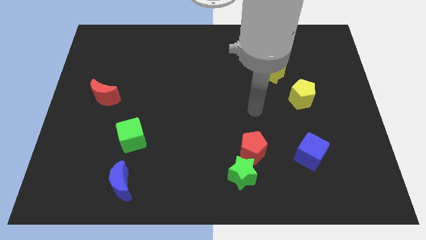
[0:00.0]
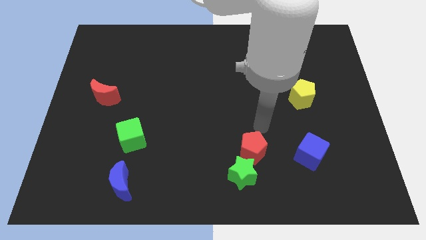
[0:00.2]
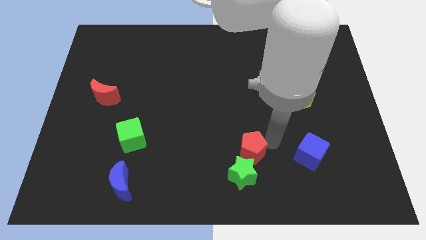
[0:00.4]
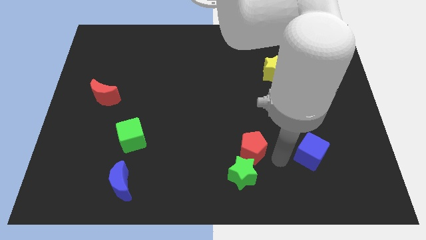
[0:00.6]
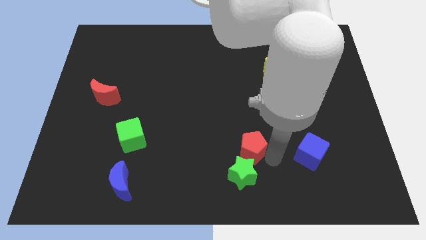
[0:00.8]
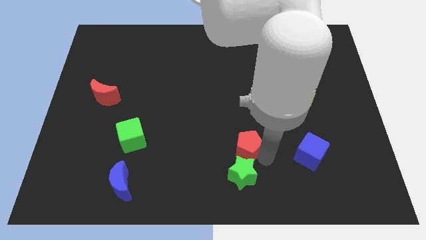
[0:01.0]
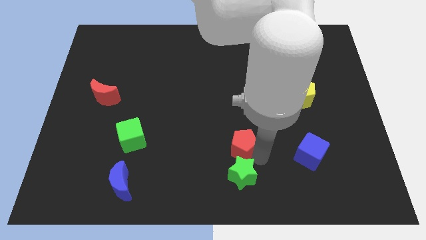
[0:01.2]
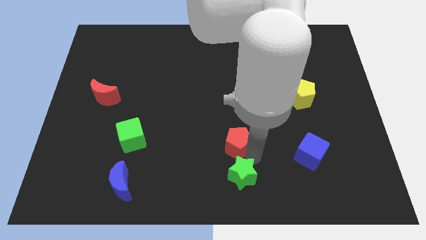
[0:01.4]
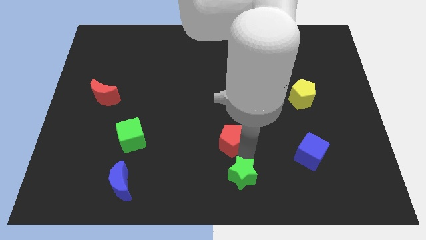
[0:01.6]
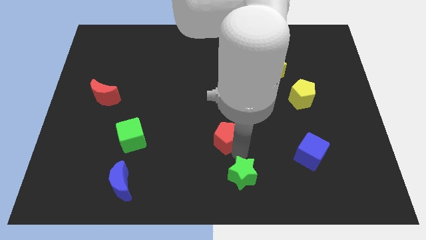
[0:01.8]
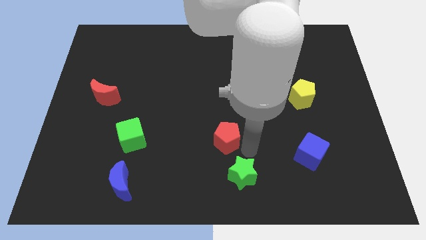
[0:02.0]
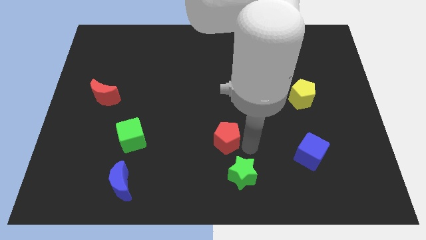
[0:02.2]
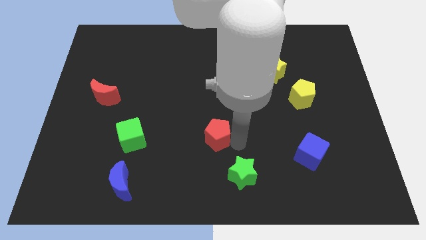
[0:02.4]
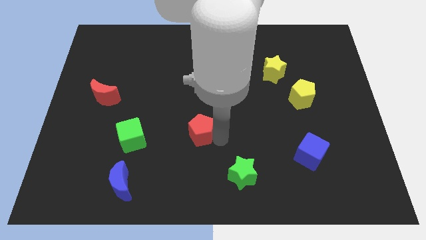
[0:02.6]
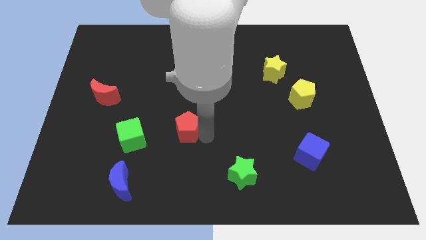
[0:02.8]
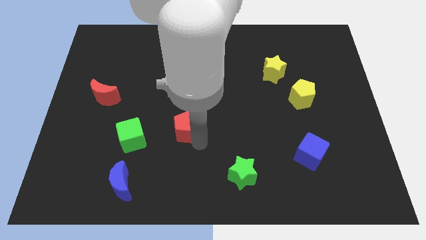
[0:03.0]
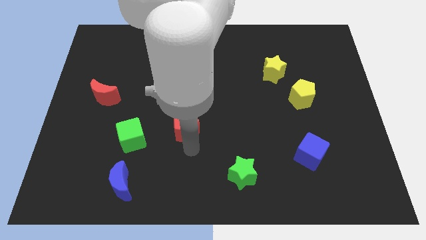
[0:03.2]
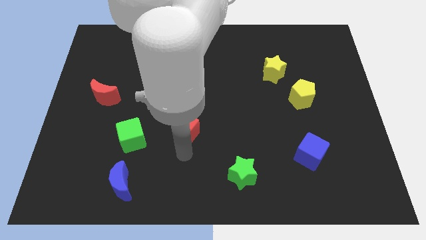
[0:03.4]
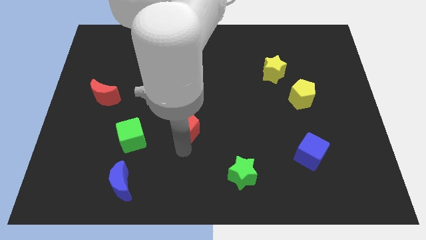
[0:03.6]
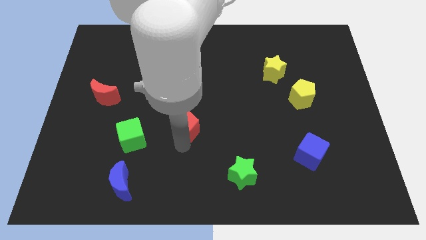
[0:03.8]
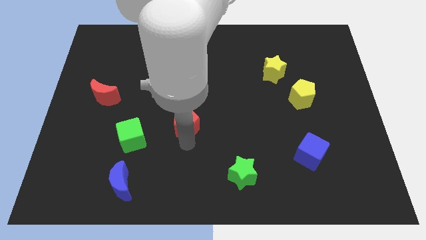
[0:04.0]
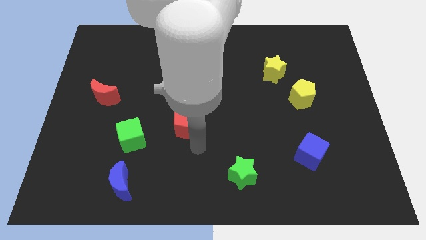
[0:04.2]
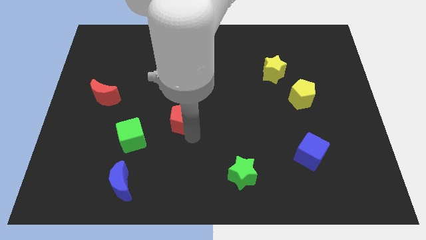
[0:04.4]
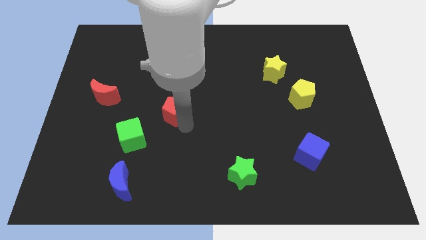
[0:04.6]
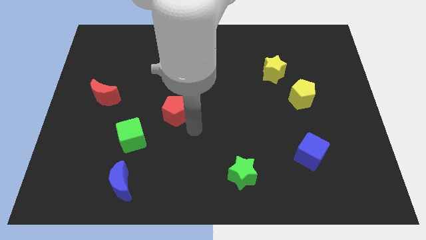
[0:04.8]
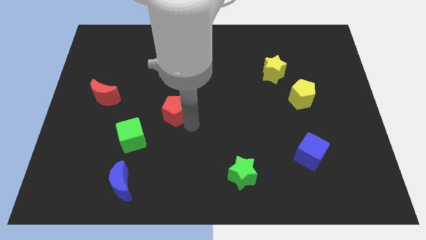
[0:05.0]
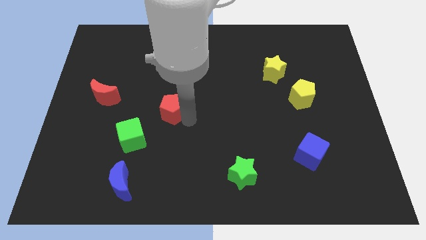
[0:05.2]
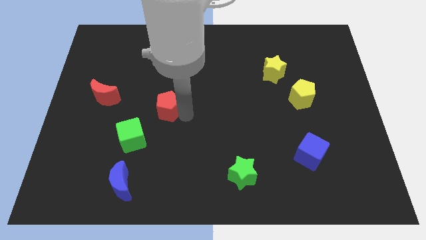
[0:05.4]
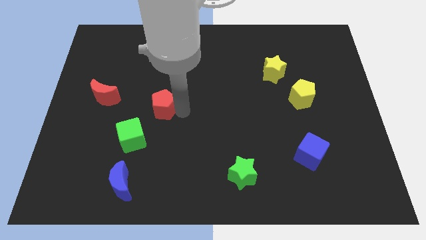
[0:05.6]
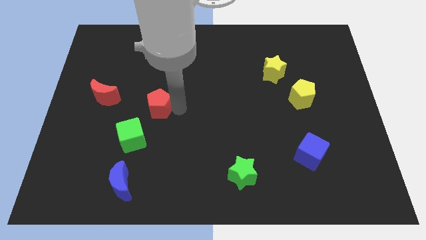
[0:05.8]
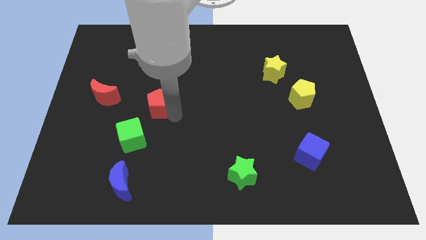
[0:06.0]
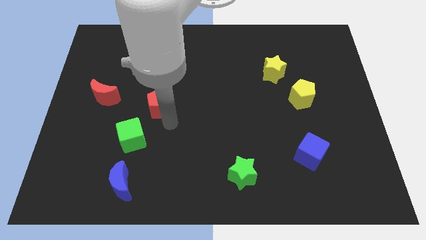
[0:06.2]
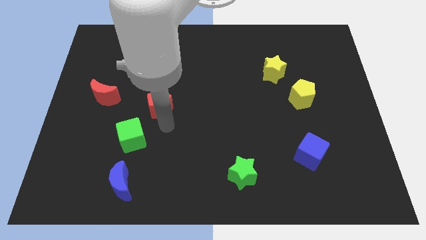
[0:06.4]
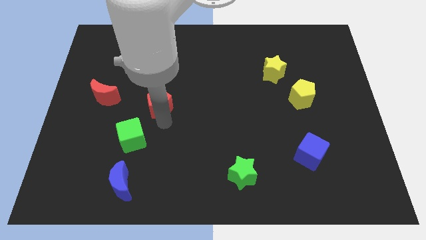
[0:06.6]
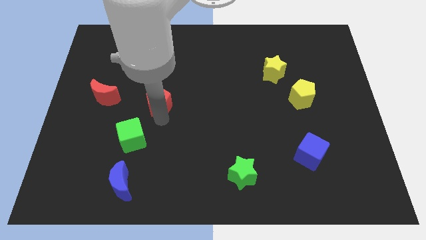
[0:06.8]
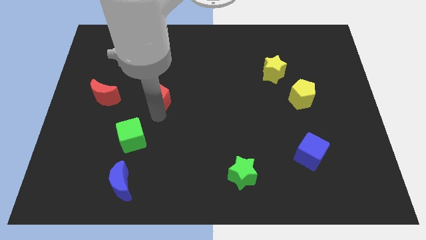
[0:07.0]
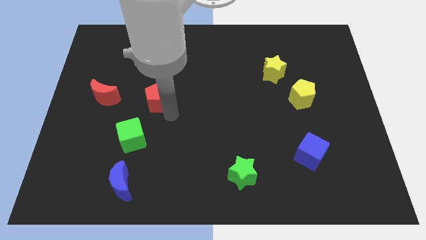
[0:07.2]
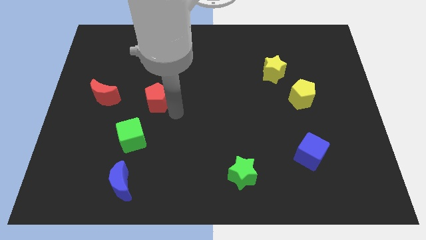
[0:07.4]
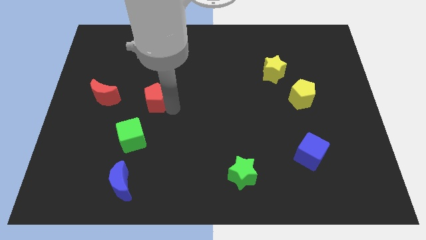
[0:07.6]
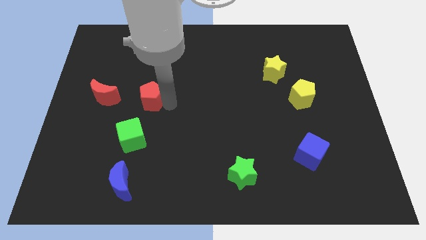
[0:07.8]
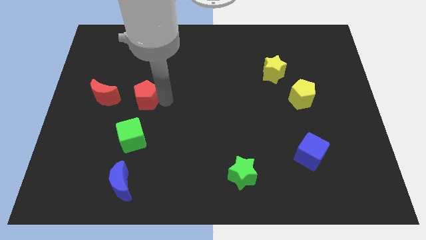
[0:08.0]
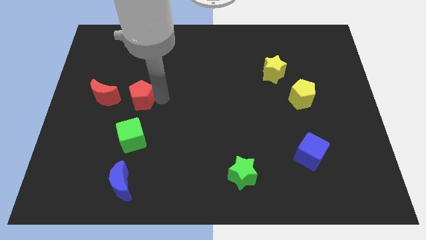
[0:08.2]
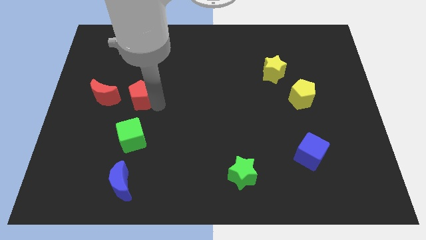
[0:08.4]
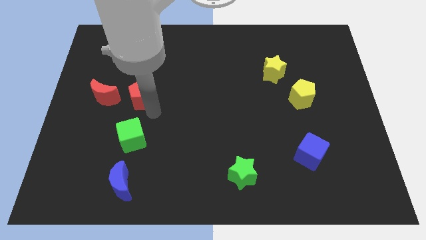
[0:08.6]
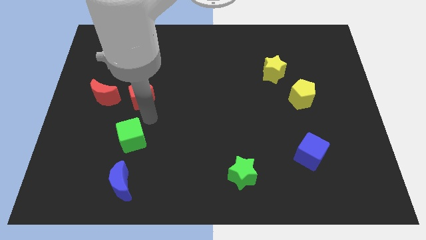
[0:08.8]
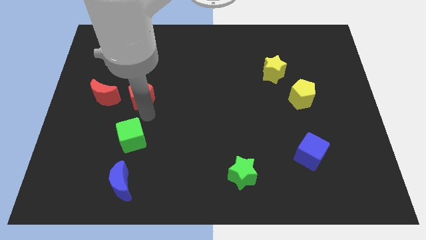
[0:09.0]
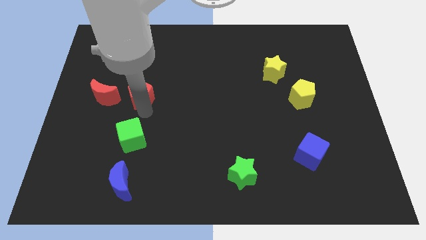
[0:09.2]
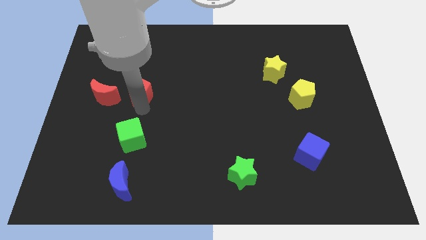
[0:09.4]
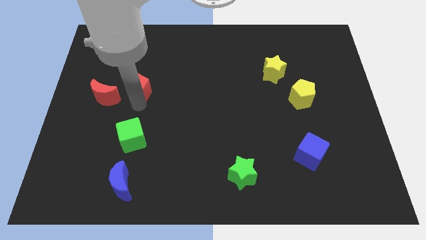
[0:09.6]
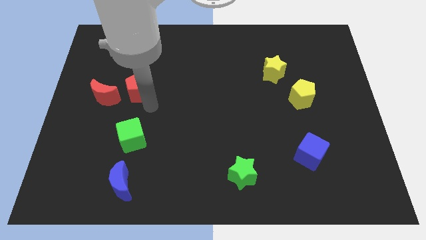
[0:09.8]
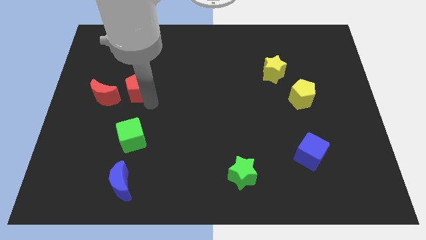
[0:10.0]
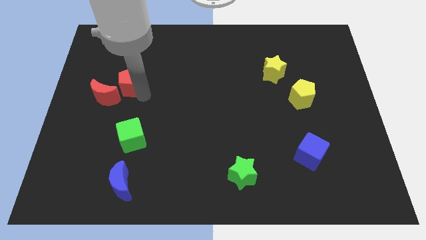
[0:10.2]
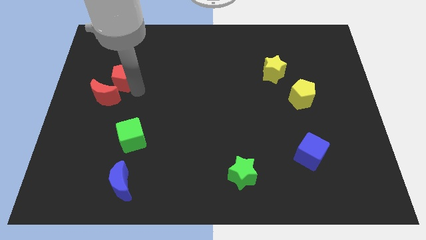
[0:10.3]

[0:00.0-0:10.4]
move the red pentagon above the red moon

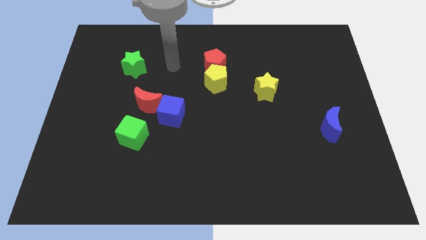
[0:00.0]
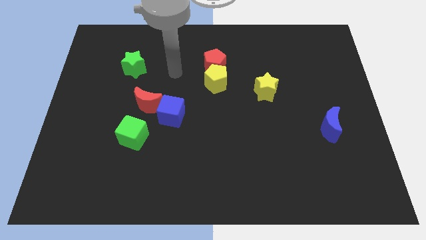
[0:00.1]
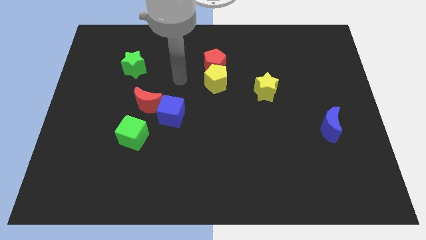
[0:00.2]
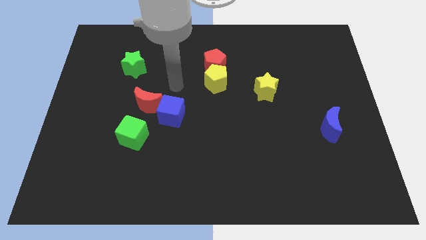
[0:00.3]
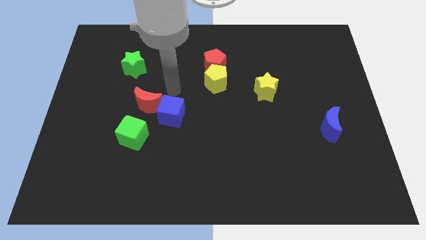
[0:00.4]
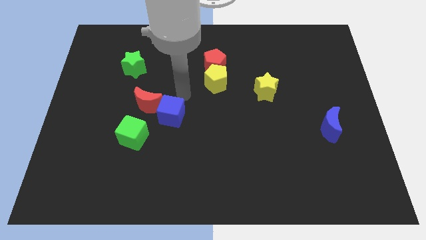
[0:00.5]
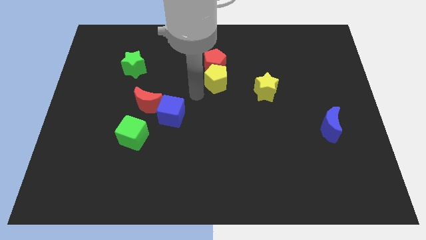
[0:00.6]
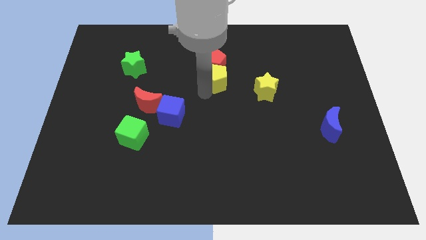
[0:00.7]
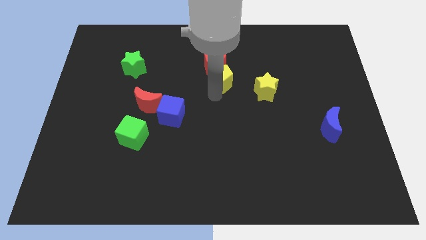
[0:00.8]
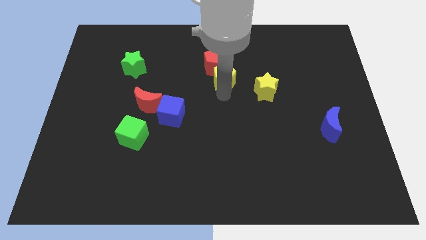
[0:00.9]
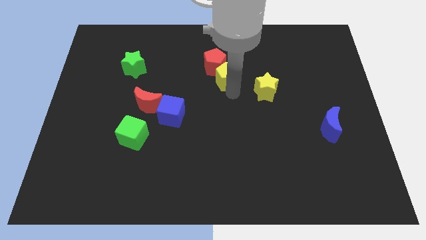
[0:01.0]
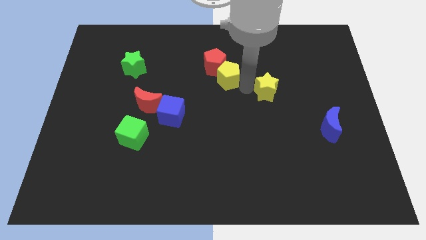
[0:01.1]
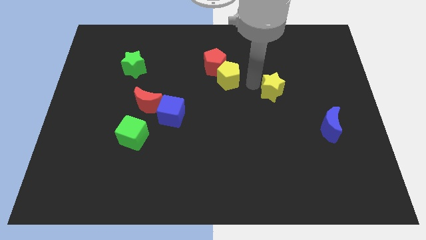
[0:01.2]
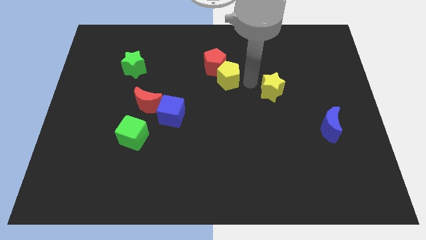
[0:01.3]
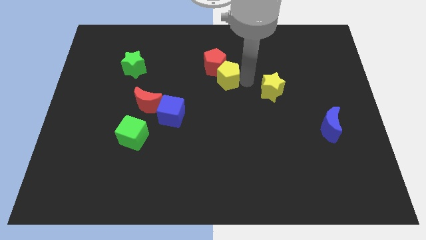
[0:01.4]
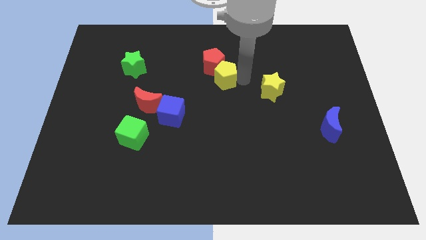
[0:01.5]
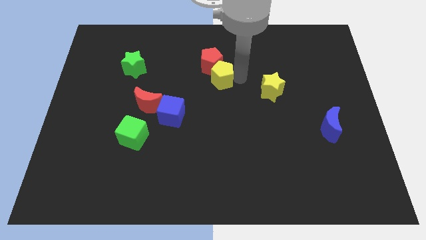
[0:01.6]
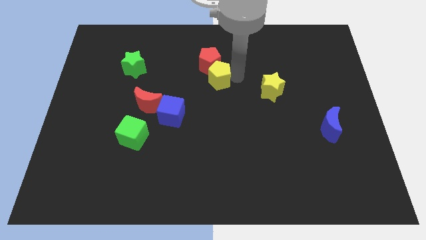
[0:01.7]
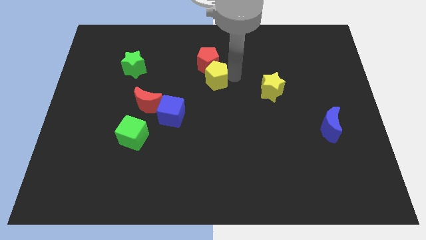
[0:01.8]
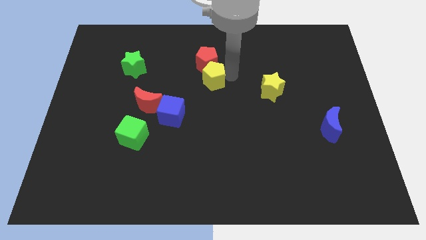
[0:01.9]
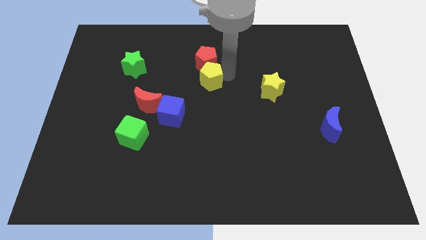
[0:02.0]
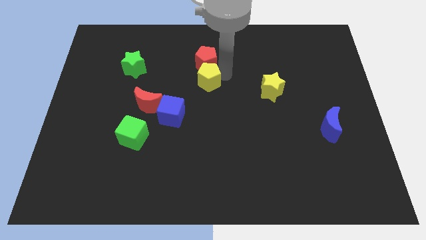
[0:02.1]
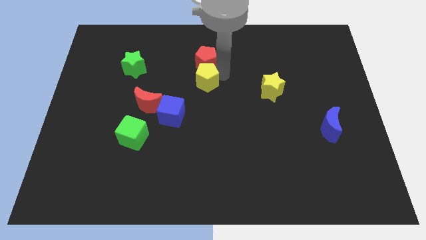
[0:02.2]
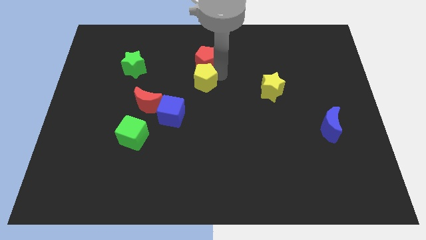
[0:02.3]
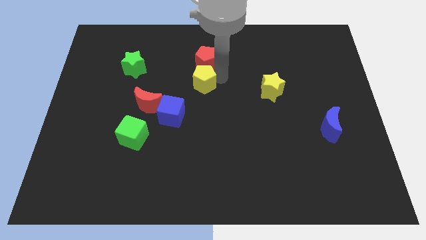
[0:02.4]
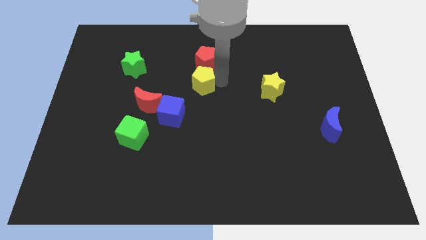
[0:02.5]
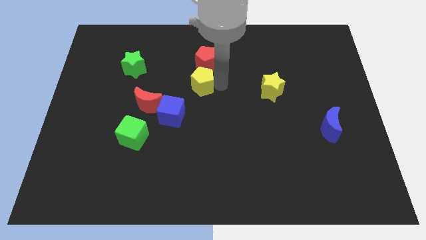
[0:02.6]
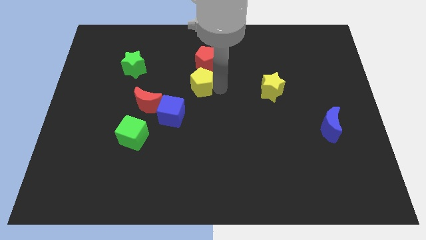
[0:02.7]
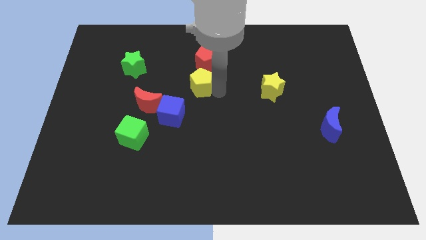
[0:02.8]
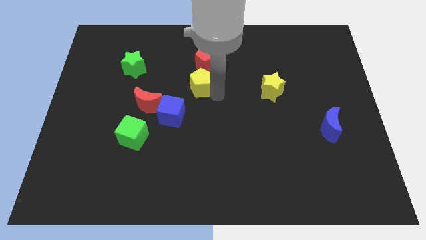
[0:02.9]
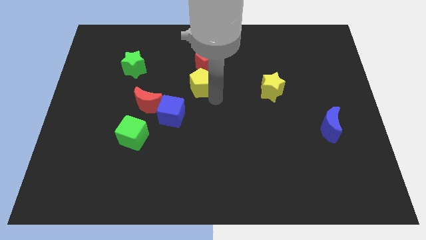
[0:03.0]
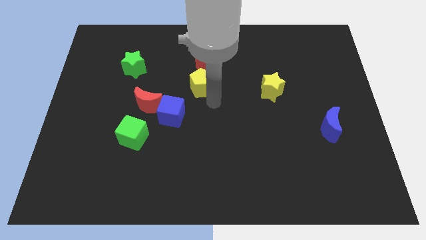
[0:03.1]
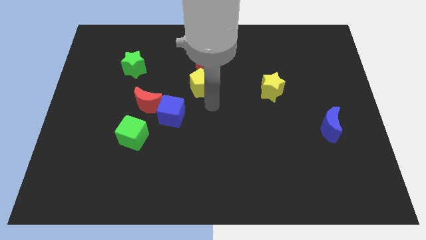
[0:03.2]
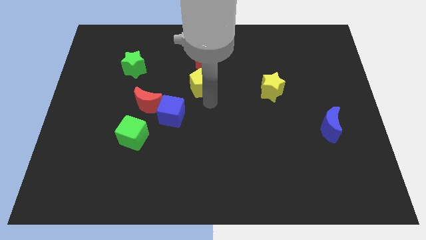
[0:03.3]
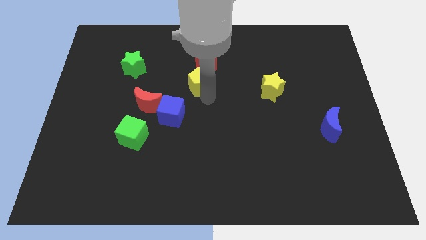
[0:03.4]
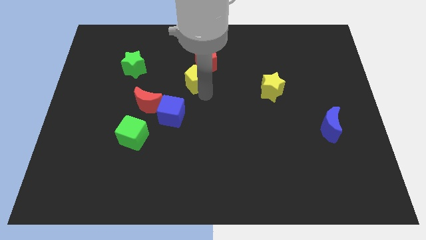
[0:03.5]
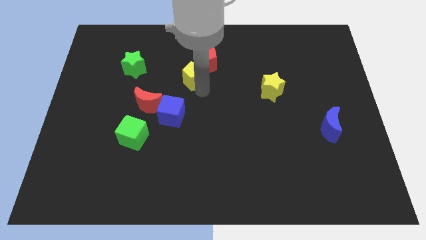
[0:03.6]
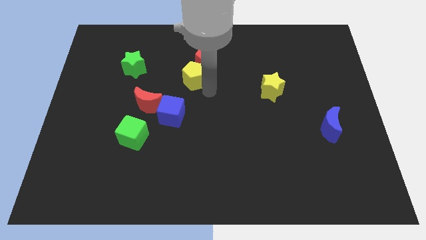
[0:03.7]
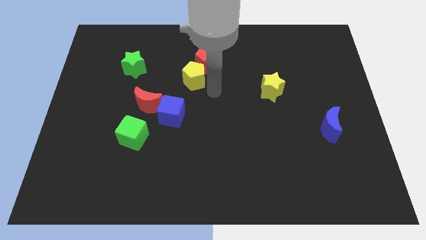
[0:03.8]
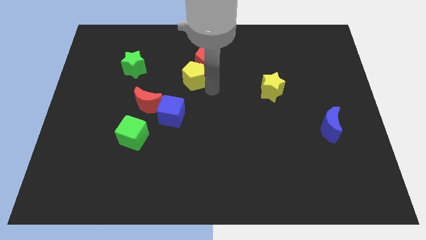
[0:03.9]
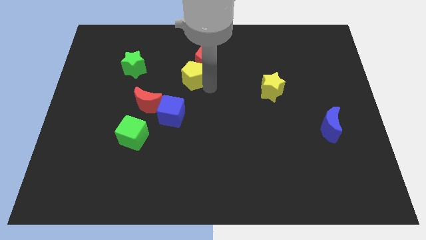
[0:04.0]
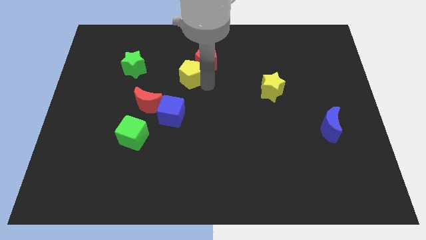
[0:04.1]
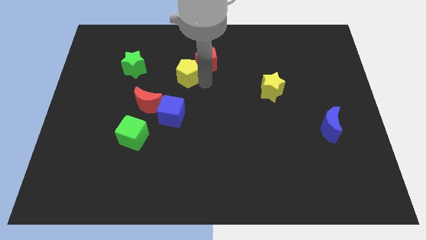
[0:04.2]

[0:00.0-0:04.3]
move the yellow pentagon to the left of the red pentagon
